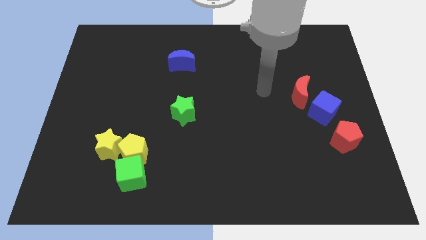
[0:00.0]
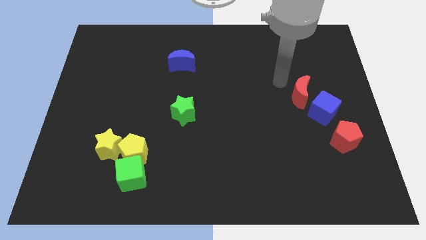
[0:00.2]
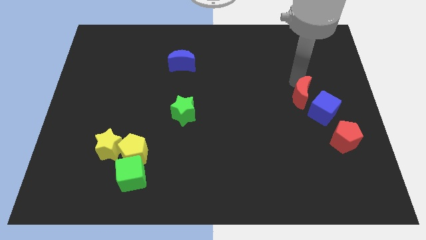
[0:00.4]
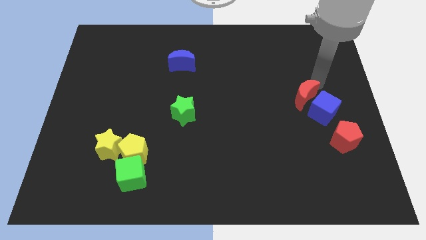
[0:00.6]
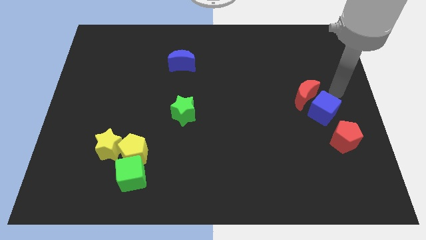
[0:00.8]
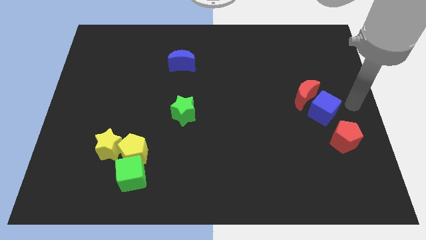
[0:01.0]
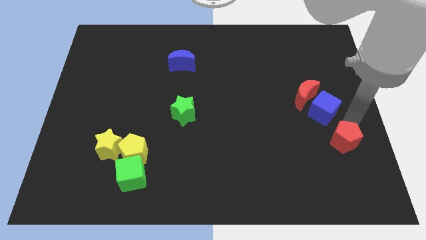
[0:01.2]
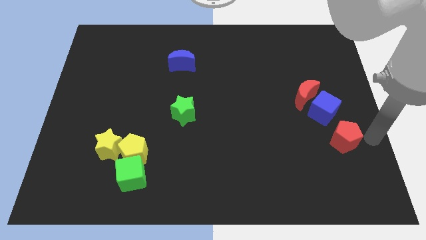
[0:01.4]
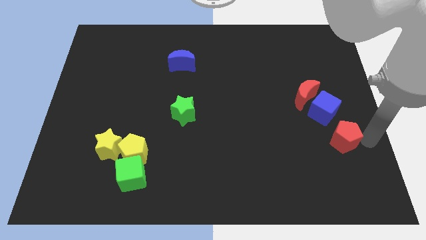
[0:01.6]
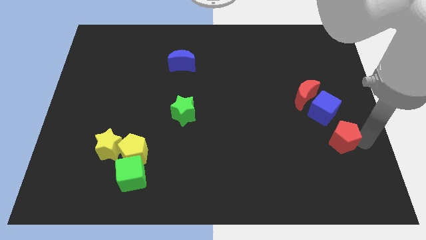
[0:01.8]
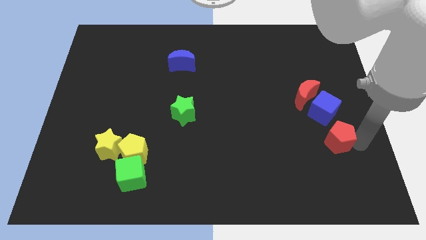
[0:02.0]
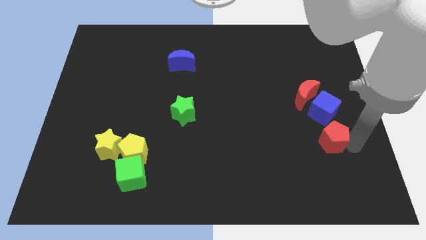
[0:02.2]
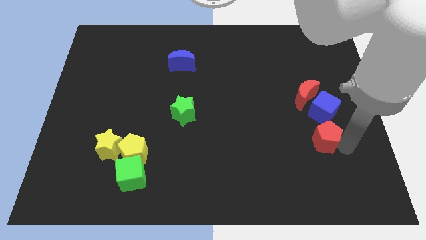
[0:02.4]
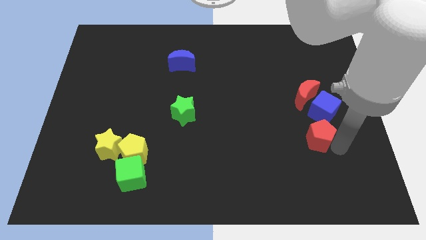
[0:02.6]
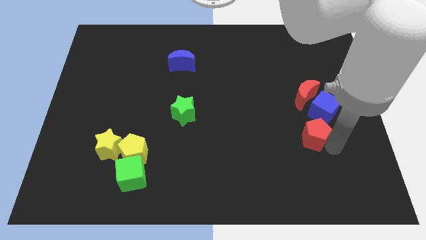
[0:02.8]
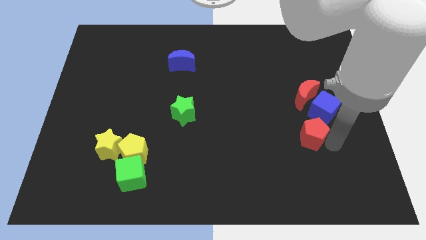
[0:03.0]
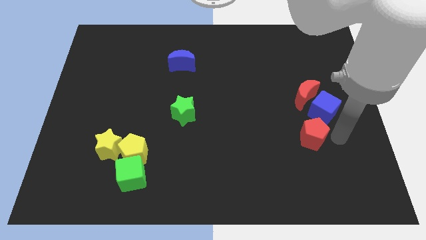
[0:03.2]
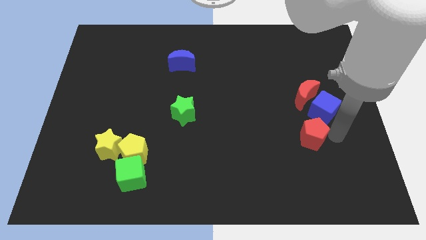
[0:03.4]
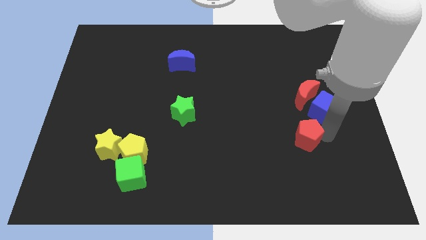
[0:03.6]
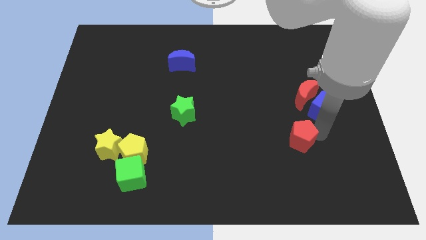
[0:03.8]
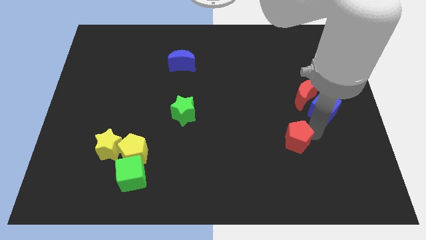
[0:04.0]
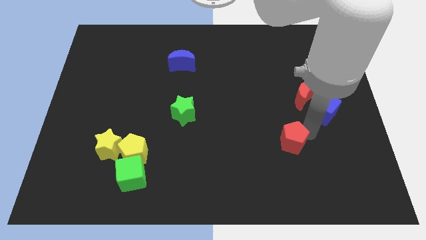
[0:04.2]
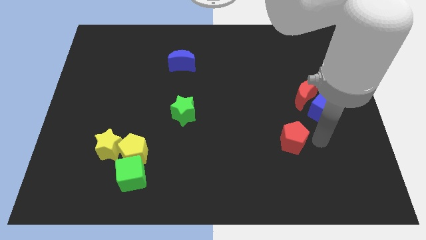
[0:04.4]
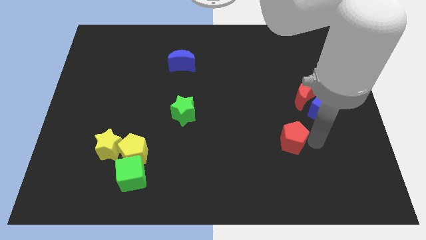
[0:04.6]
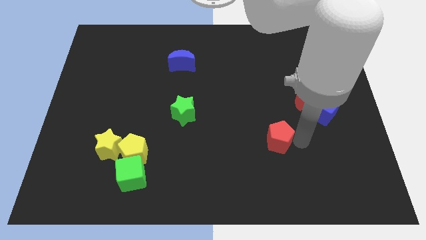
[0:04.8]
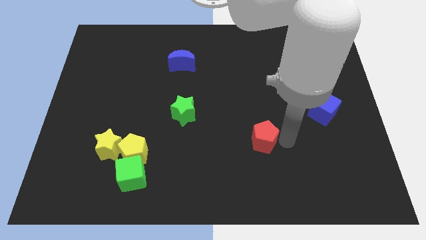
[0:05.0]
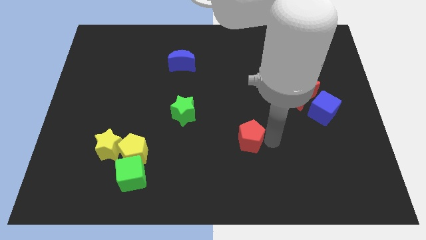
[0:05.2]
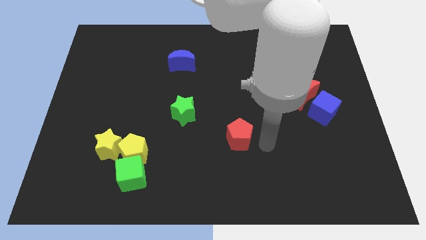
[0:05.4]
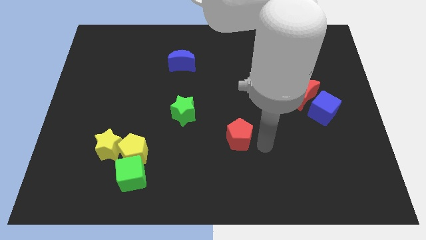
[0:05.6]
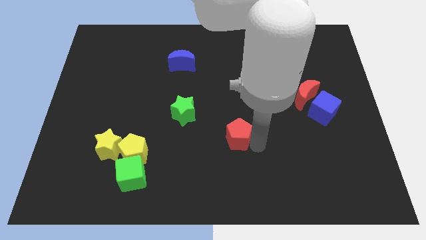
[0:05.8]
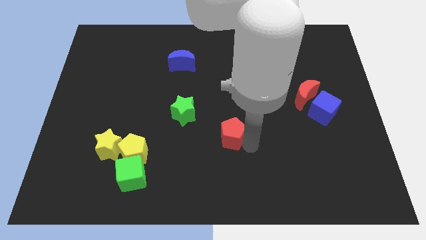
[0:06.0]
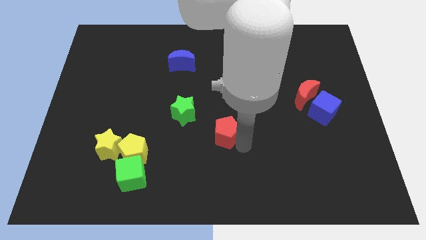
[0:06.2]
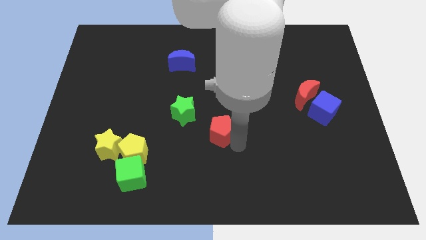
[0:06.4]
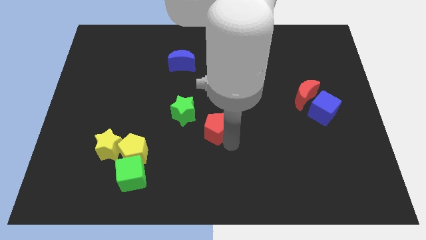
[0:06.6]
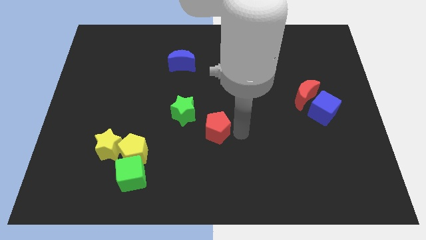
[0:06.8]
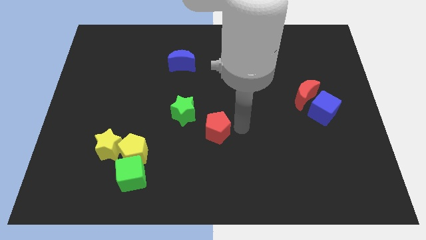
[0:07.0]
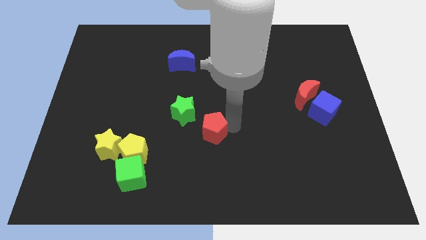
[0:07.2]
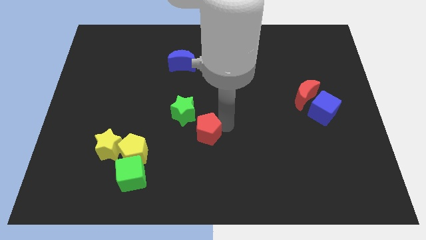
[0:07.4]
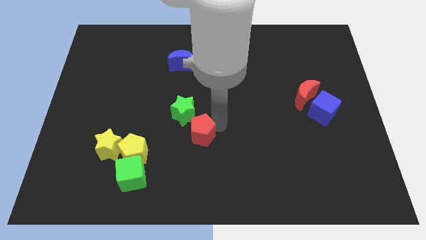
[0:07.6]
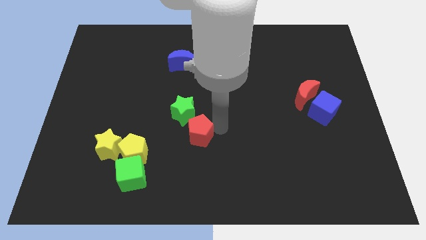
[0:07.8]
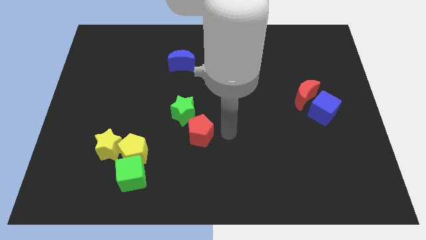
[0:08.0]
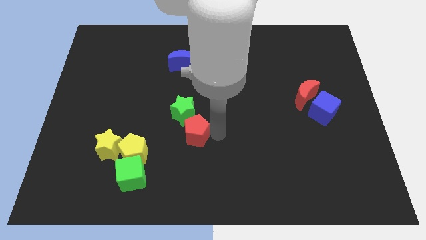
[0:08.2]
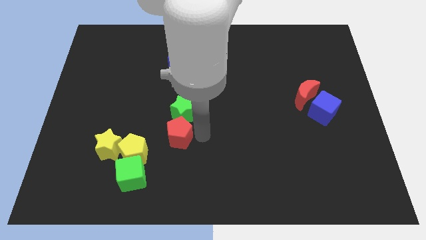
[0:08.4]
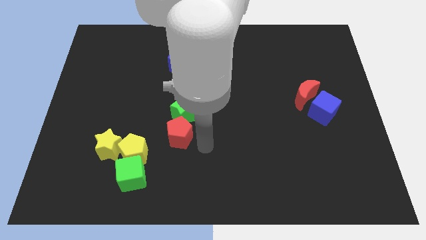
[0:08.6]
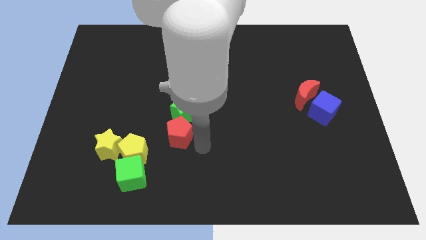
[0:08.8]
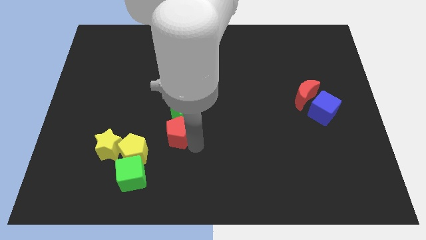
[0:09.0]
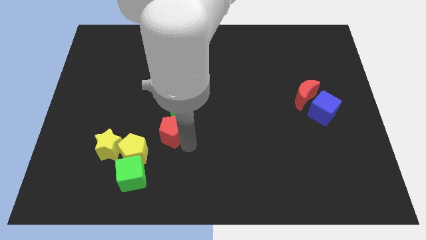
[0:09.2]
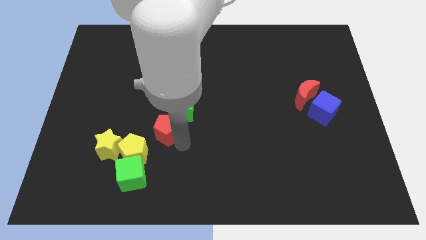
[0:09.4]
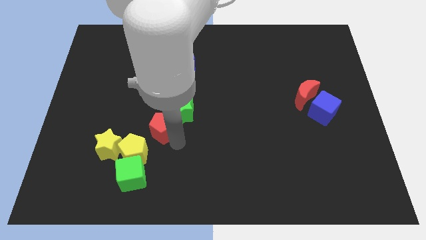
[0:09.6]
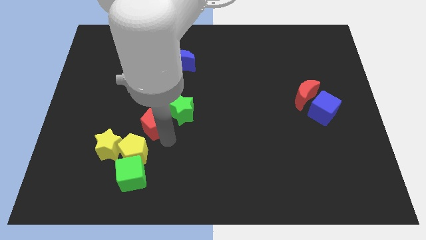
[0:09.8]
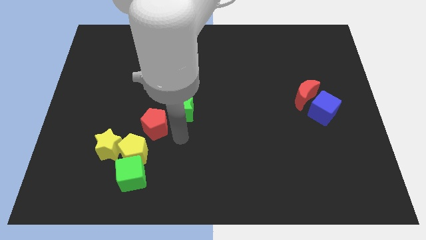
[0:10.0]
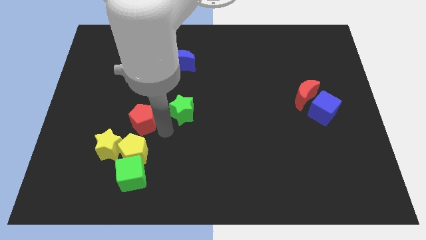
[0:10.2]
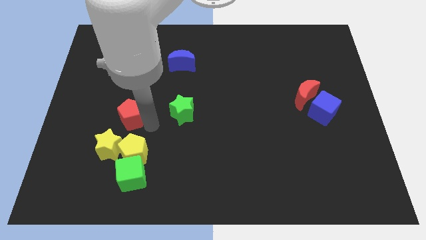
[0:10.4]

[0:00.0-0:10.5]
move the red pentagon to the top side of the yellow star

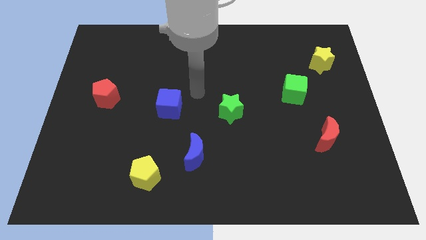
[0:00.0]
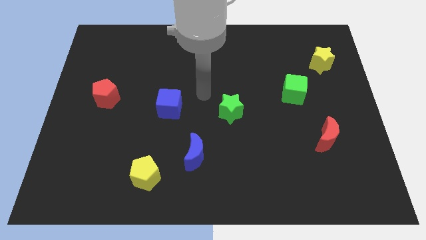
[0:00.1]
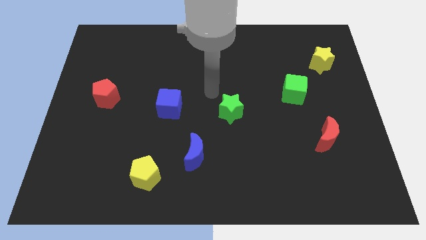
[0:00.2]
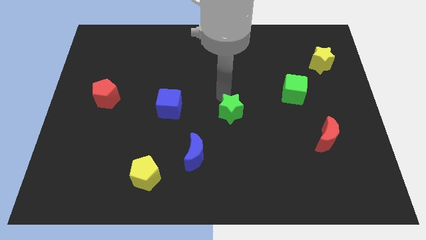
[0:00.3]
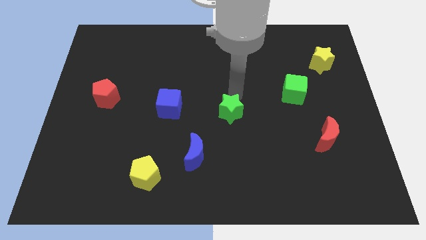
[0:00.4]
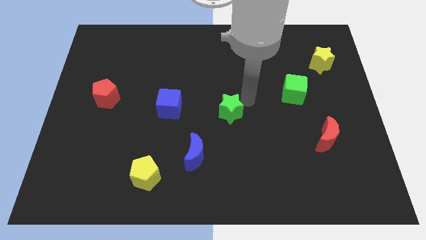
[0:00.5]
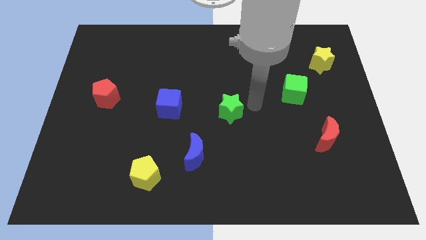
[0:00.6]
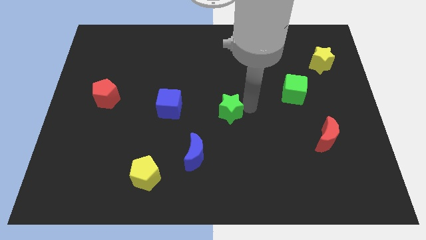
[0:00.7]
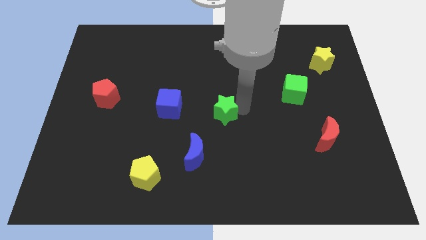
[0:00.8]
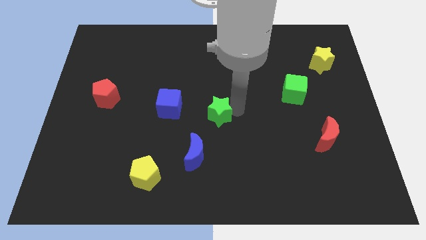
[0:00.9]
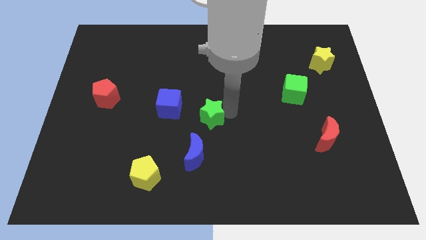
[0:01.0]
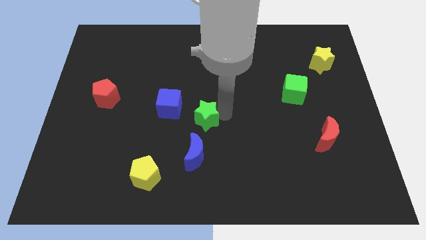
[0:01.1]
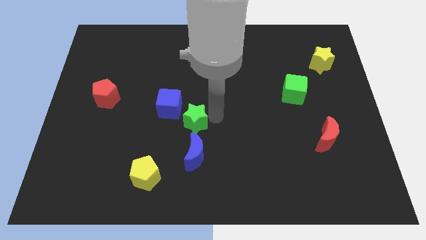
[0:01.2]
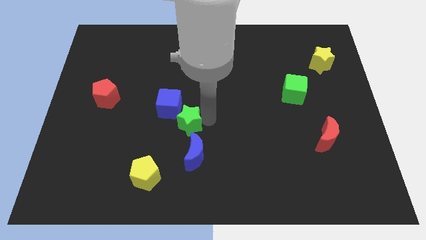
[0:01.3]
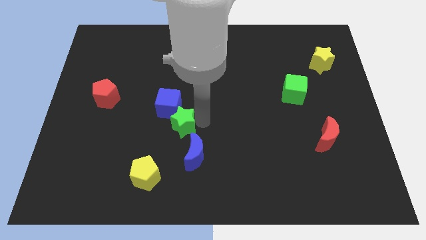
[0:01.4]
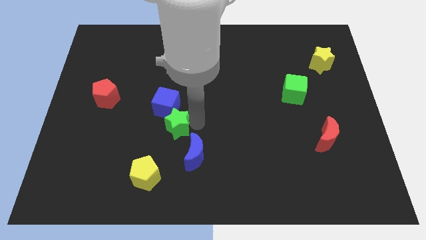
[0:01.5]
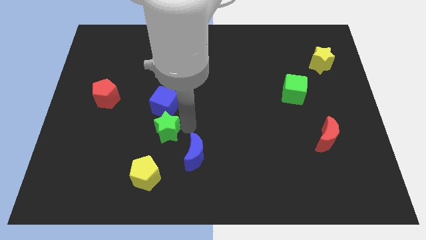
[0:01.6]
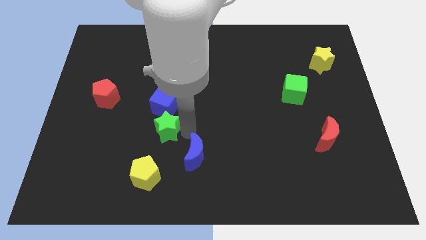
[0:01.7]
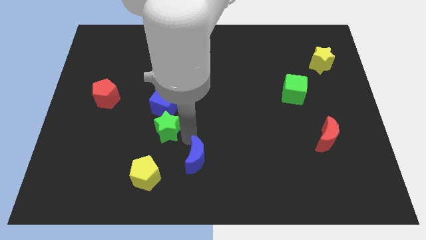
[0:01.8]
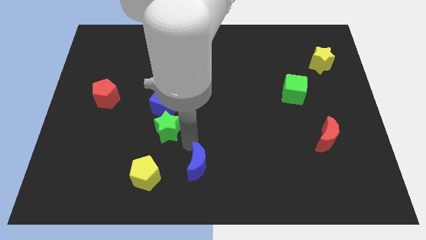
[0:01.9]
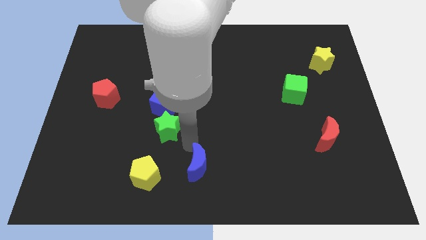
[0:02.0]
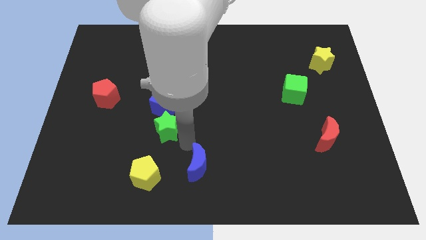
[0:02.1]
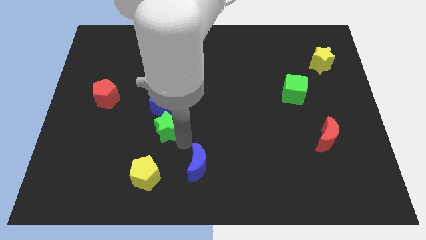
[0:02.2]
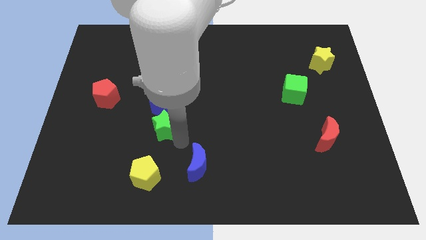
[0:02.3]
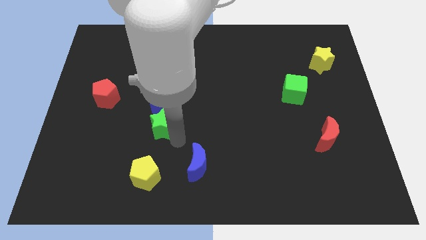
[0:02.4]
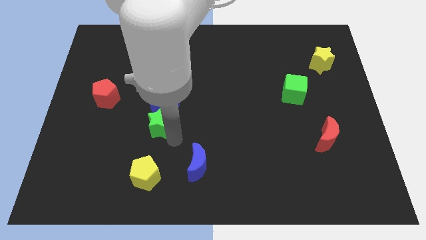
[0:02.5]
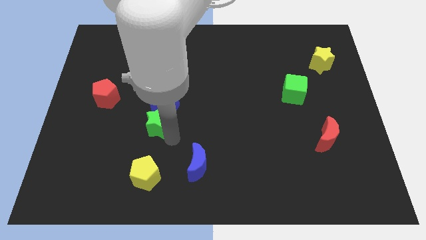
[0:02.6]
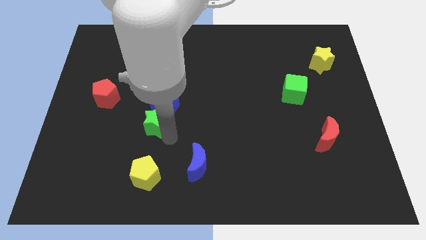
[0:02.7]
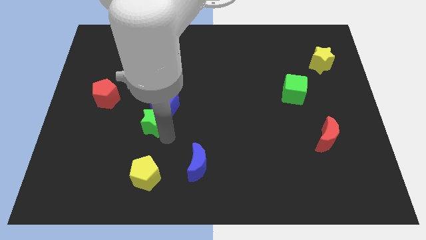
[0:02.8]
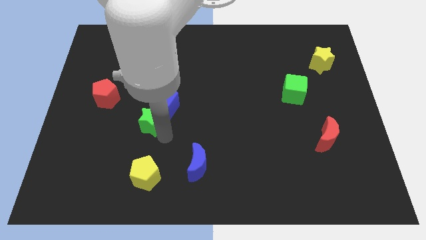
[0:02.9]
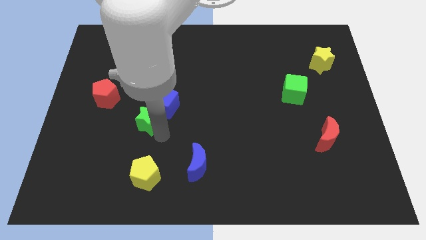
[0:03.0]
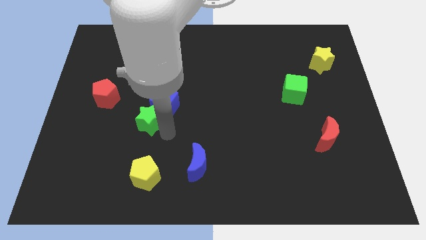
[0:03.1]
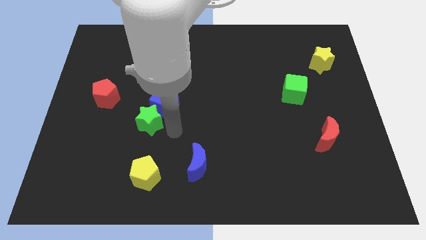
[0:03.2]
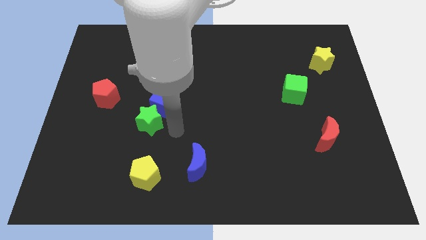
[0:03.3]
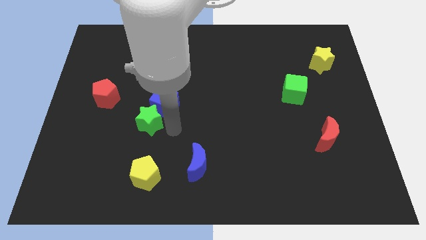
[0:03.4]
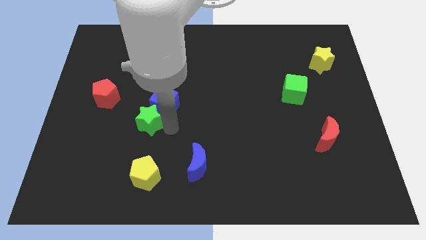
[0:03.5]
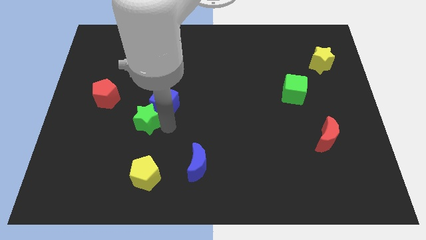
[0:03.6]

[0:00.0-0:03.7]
move the green star to the bottom right side of the red pentagon
